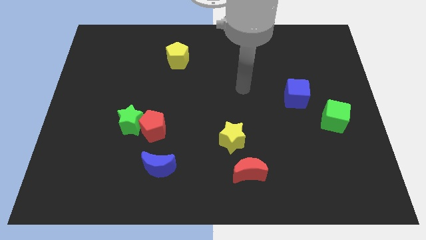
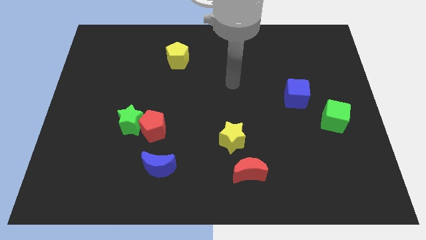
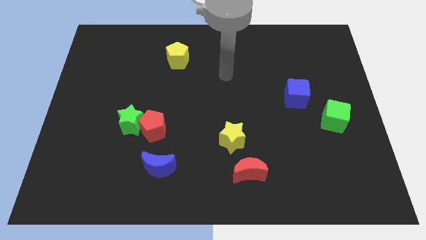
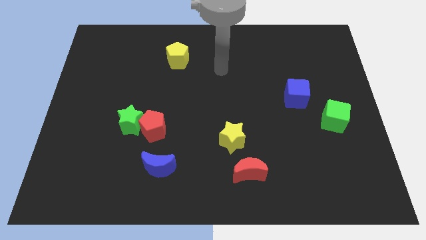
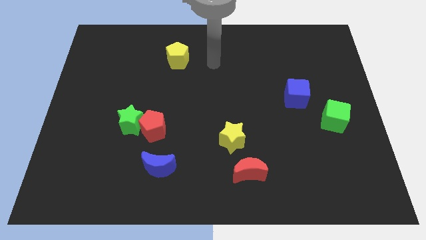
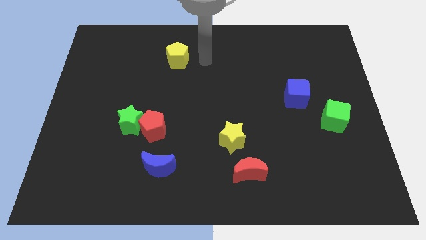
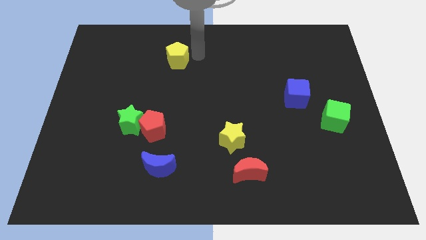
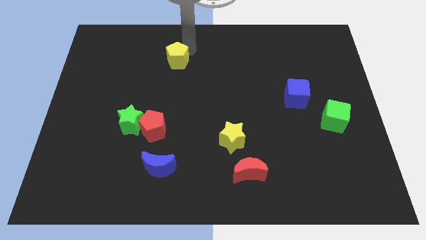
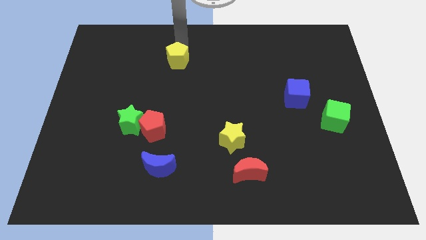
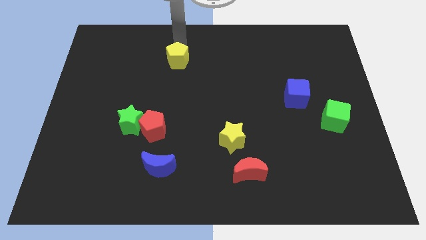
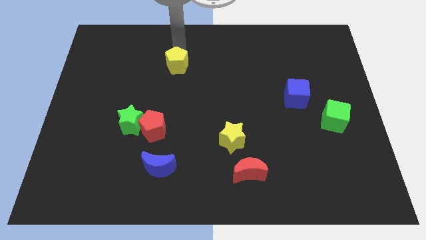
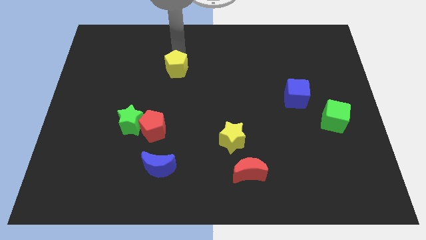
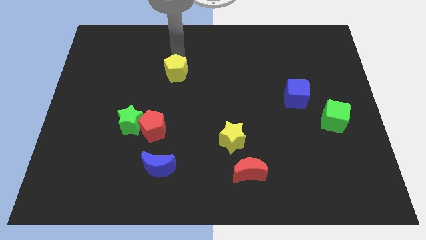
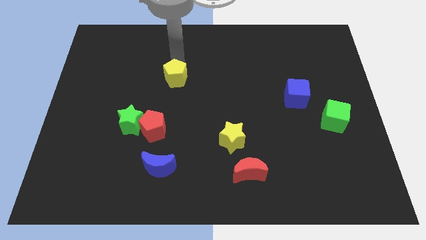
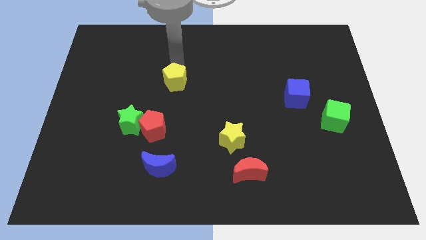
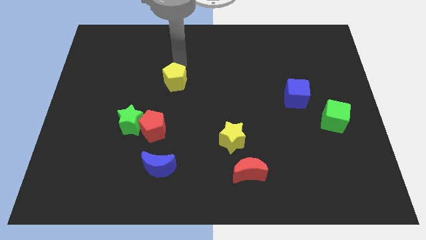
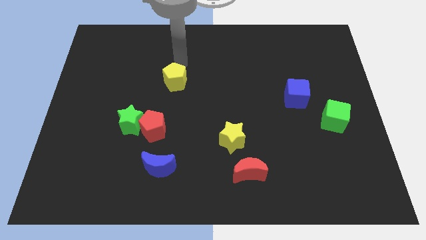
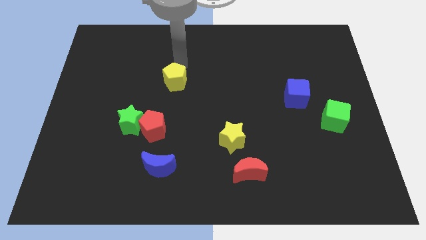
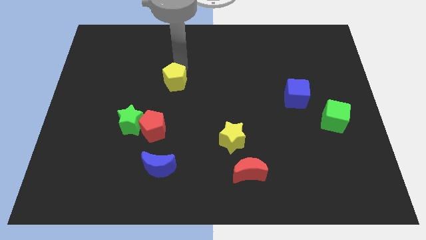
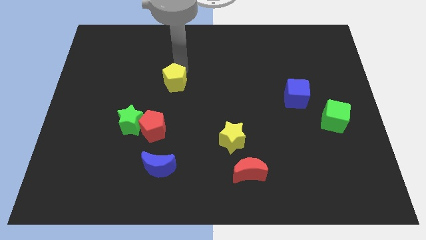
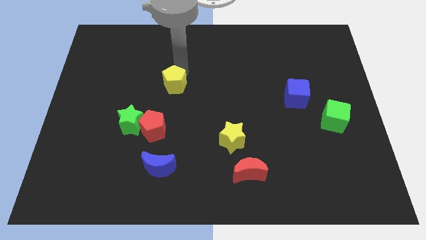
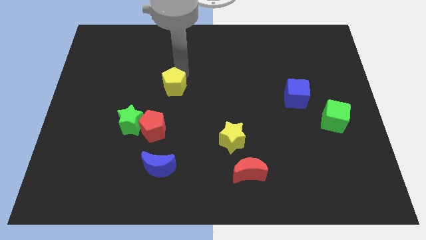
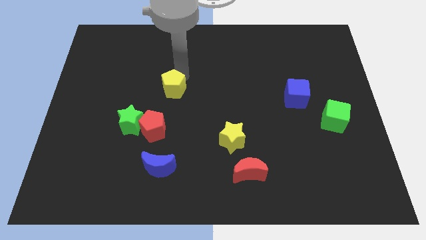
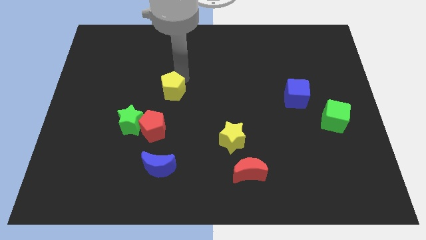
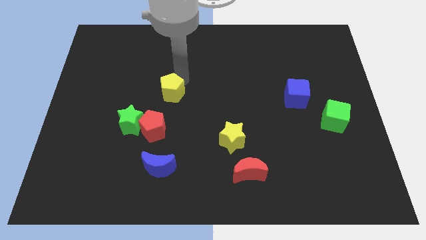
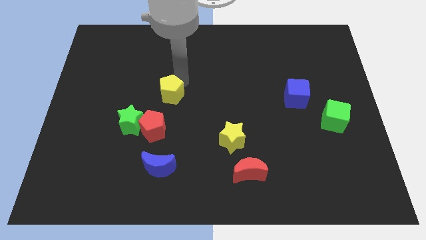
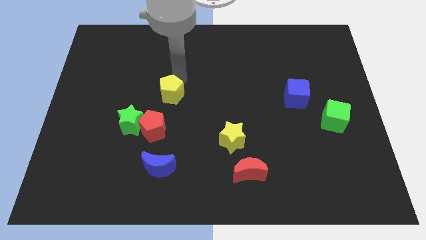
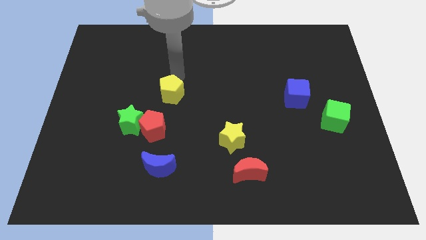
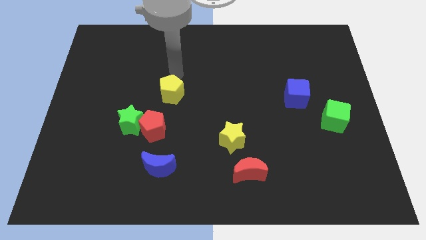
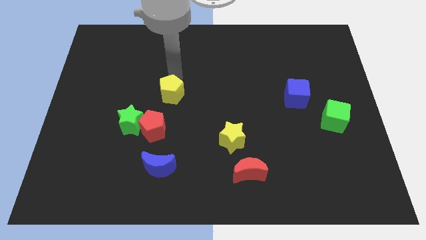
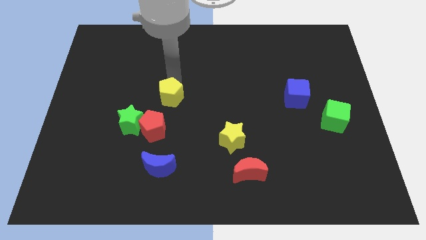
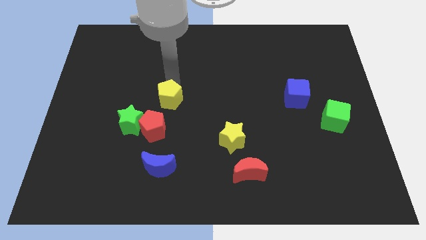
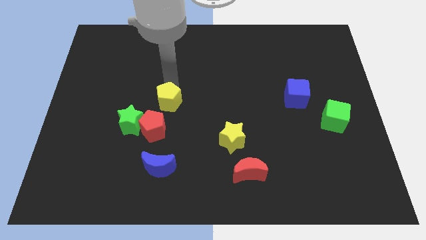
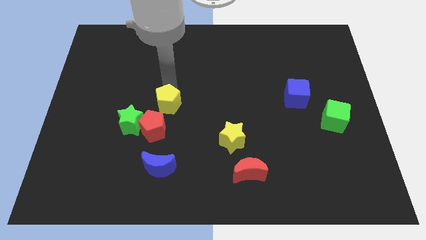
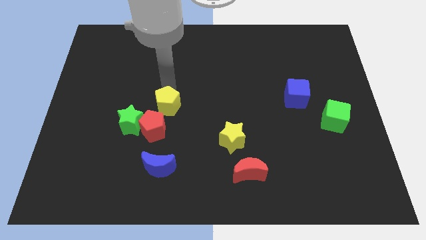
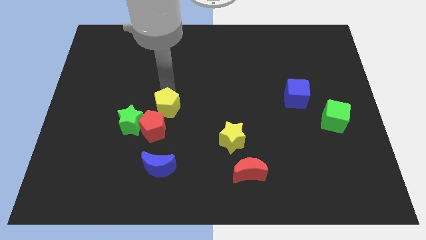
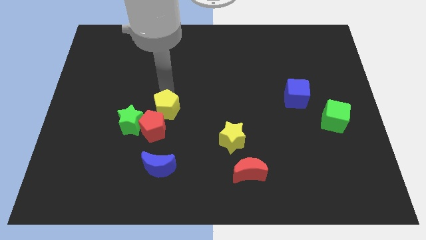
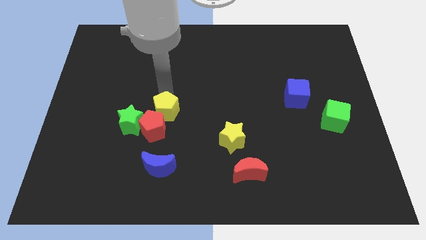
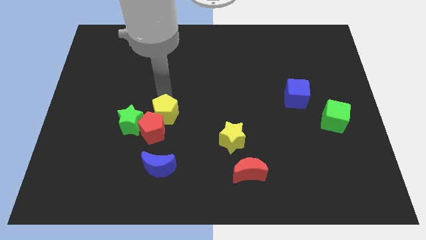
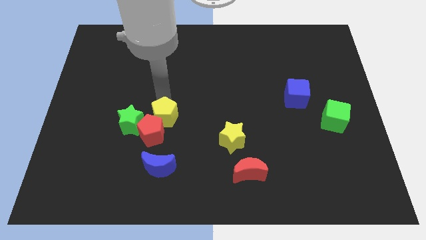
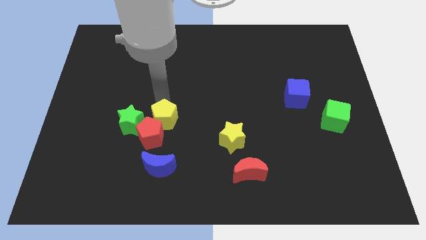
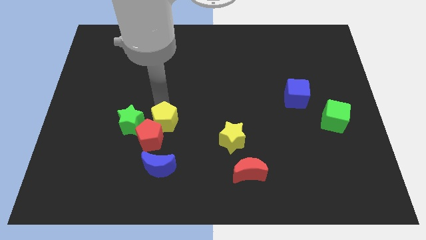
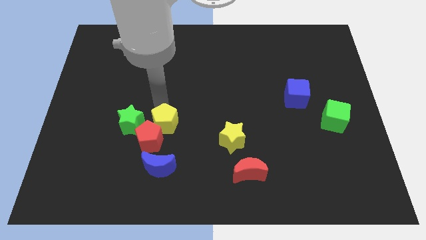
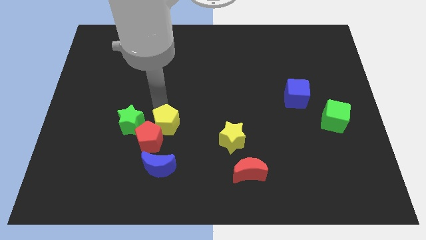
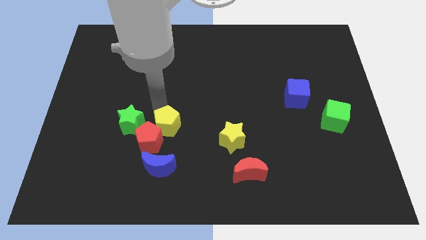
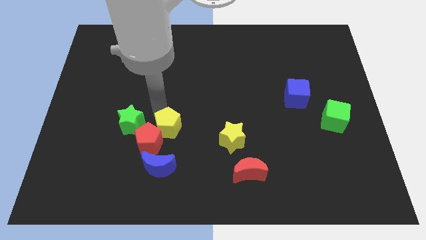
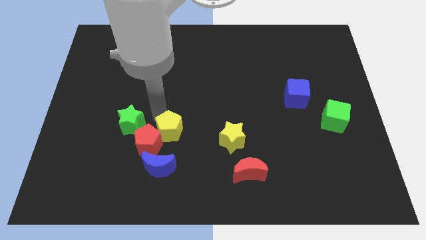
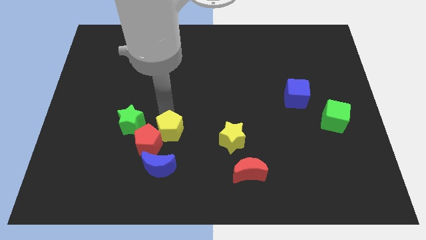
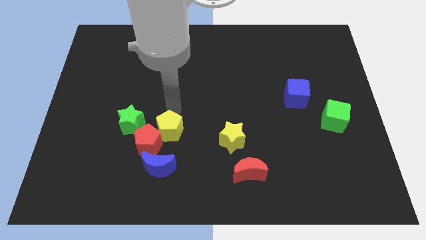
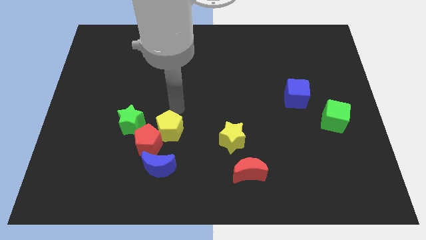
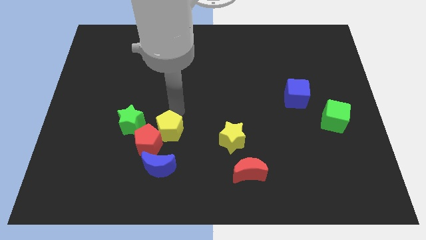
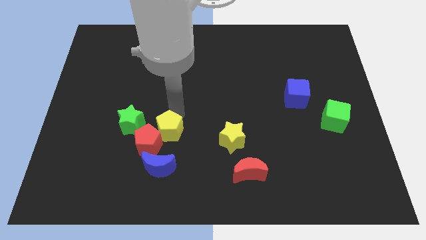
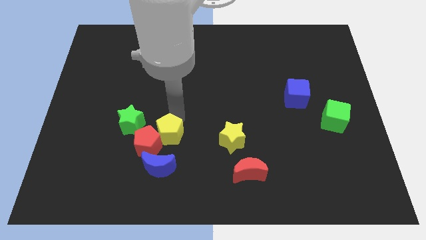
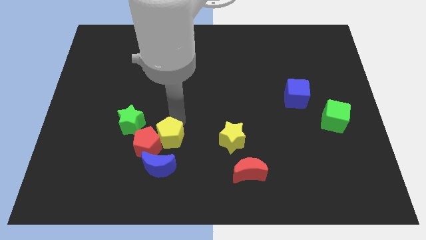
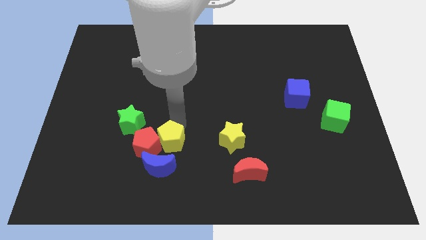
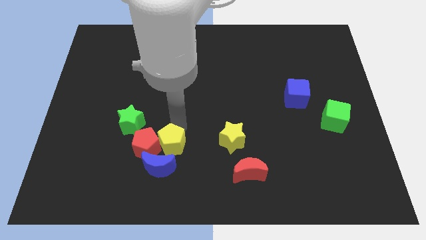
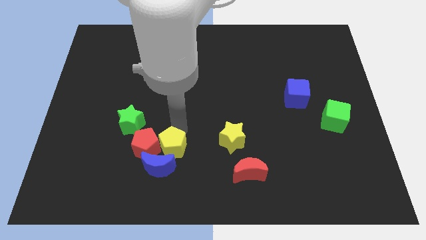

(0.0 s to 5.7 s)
put the yellow pentagon next to the blue moon

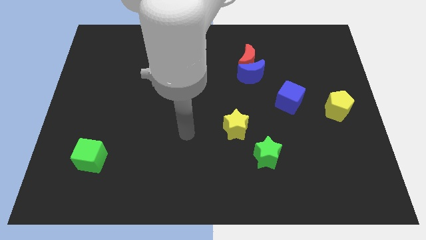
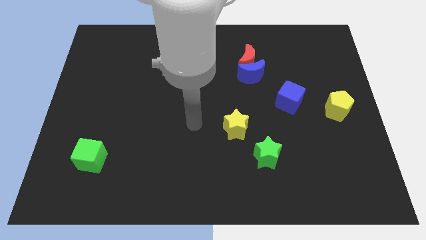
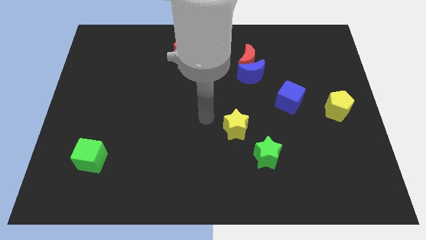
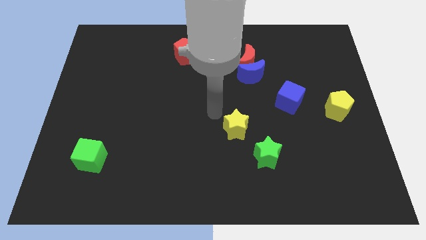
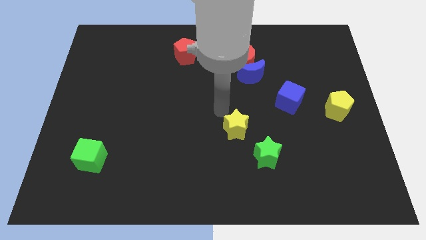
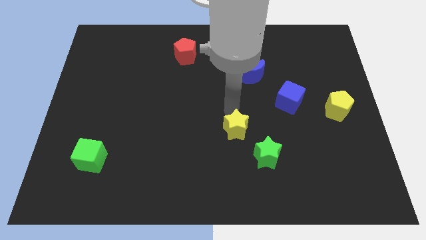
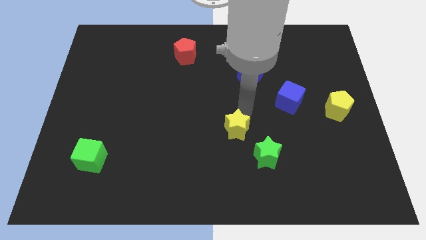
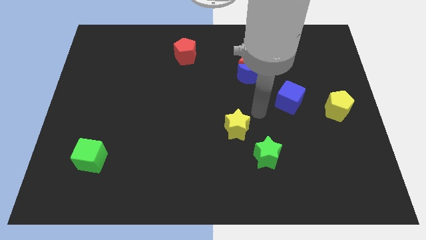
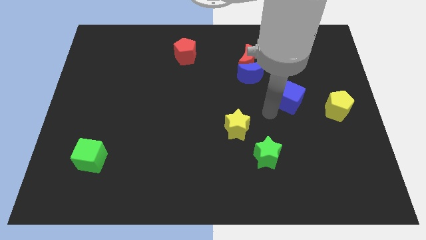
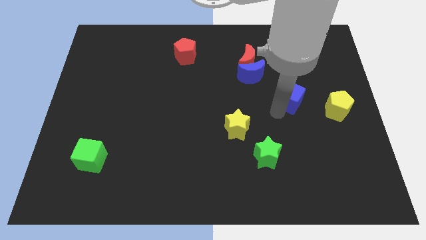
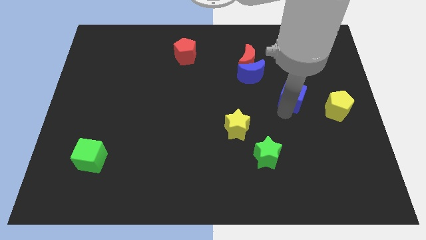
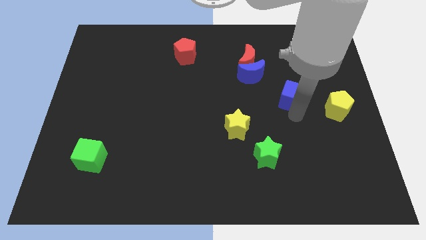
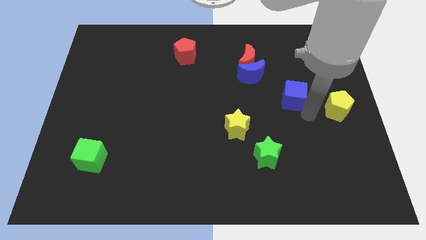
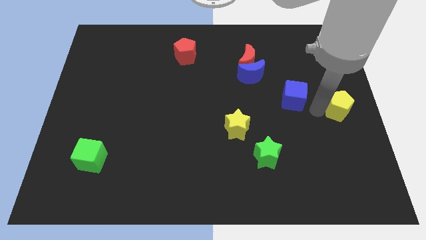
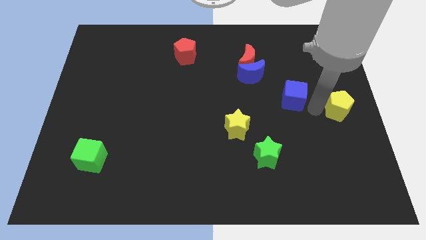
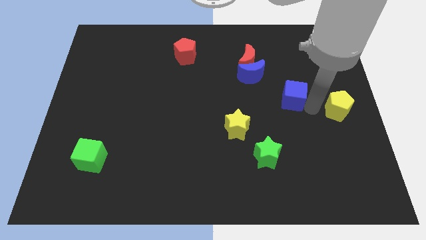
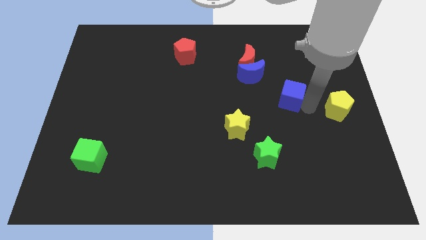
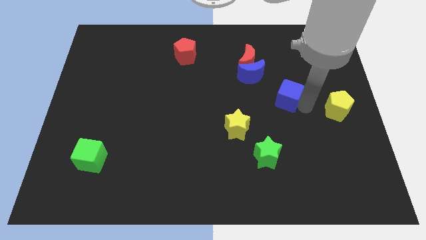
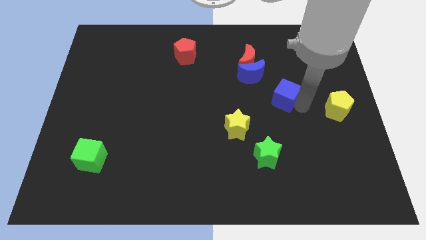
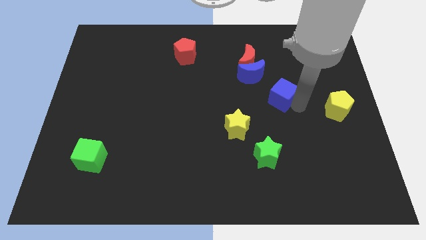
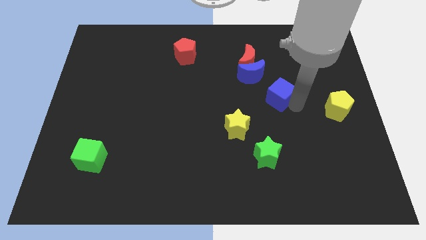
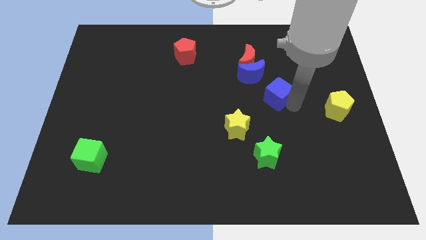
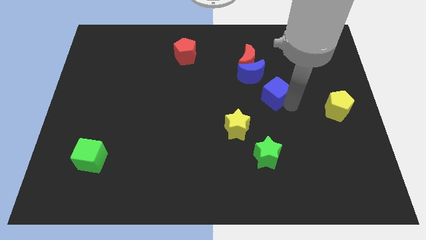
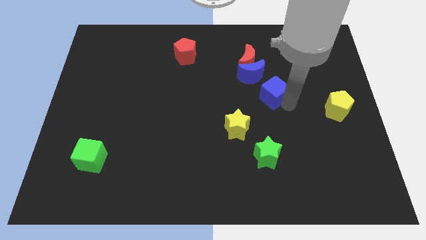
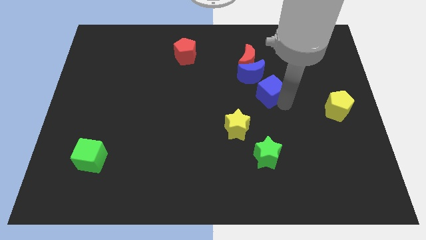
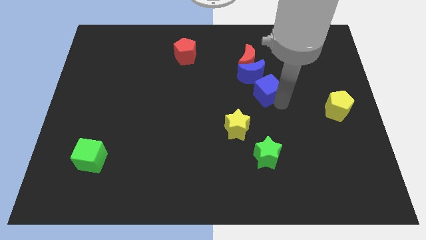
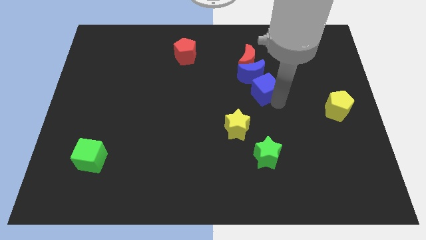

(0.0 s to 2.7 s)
slide the blue cube close to the blue moon
